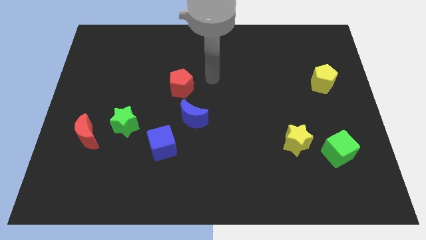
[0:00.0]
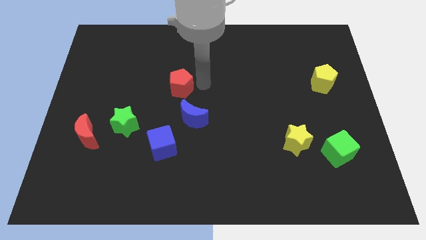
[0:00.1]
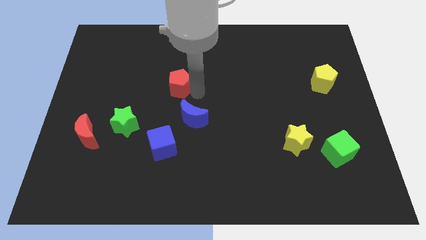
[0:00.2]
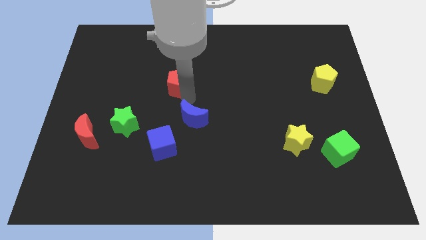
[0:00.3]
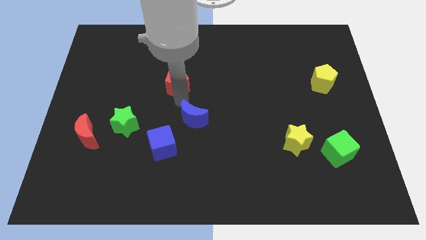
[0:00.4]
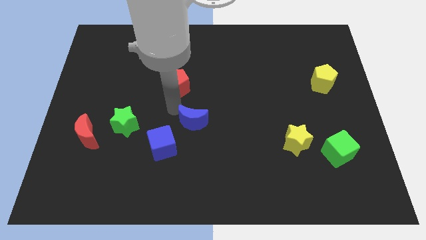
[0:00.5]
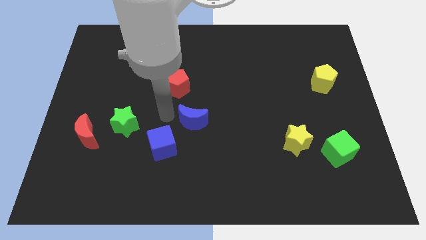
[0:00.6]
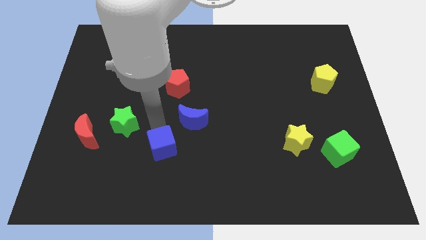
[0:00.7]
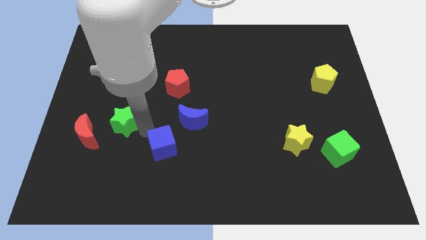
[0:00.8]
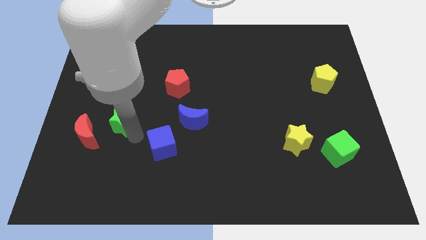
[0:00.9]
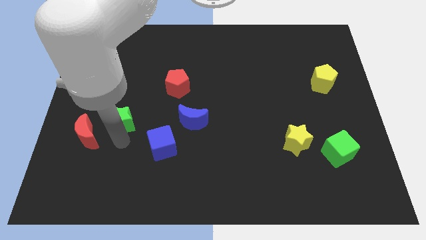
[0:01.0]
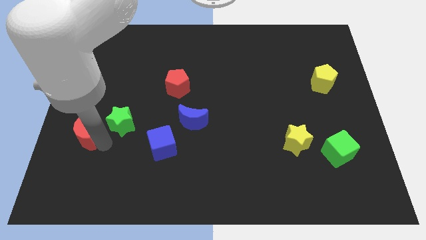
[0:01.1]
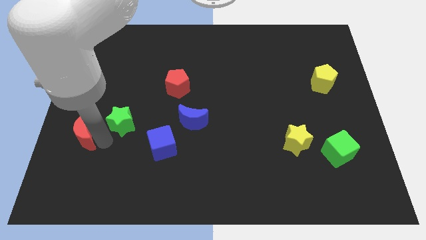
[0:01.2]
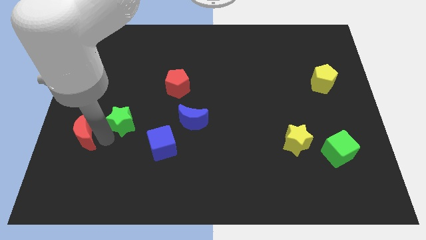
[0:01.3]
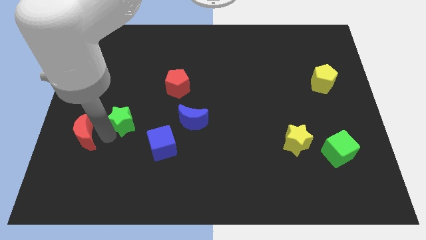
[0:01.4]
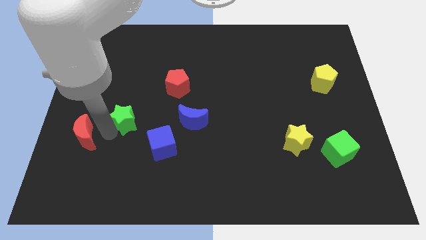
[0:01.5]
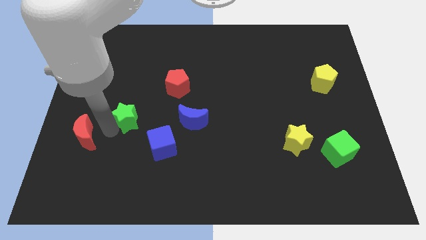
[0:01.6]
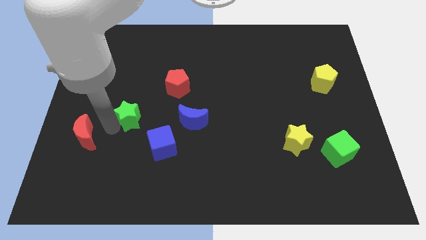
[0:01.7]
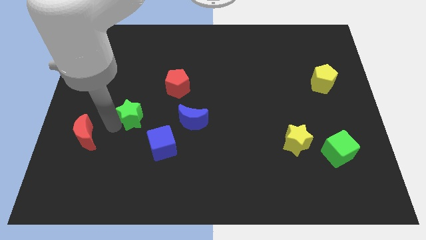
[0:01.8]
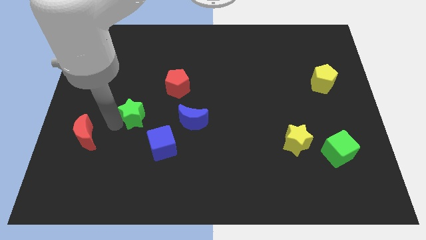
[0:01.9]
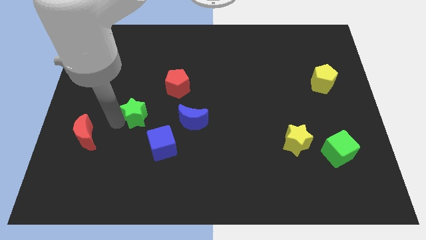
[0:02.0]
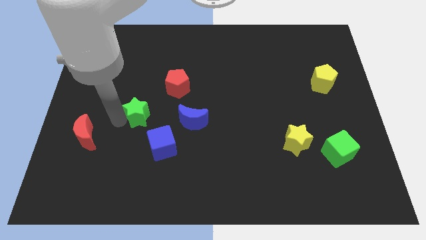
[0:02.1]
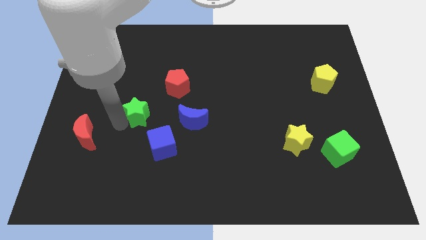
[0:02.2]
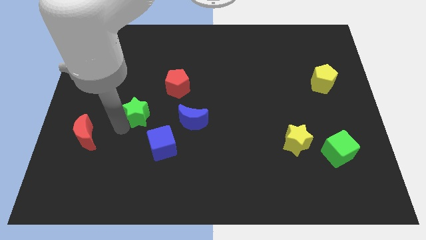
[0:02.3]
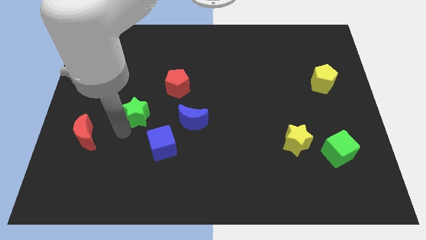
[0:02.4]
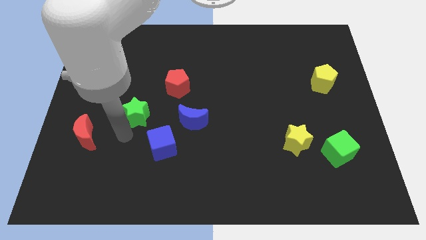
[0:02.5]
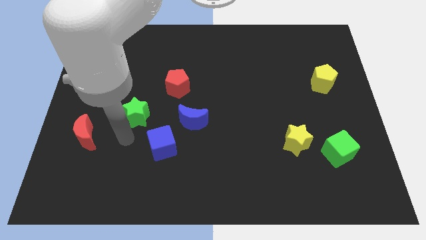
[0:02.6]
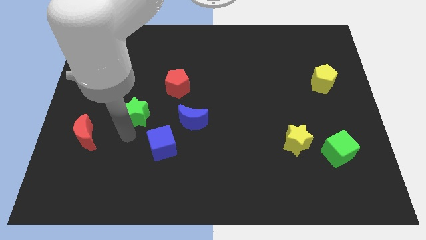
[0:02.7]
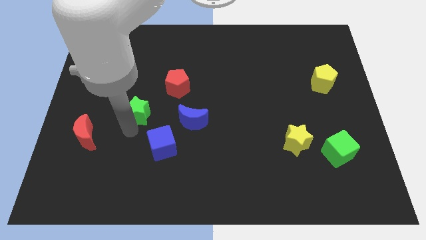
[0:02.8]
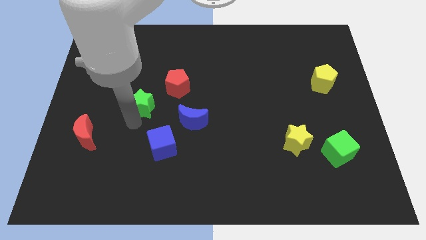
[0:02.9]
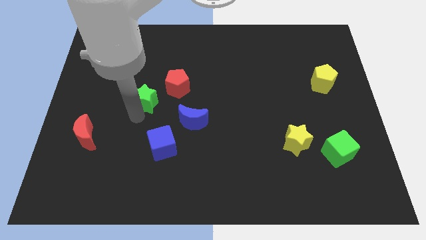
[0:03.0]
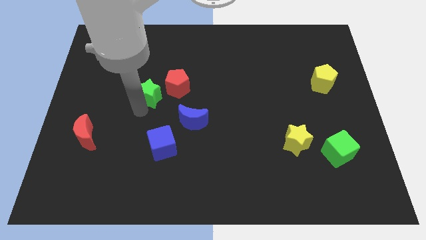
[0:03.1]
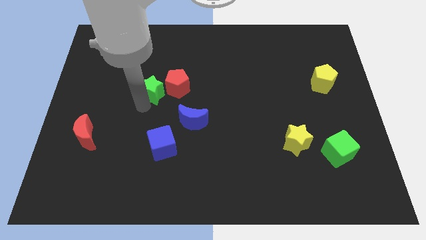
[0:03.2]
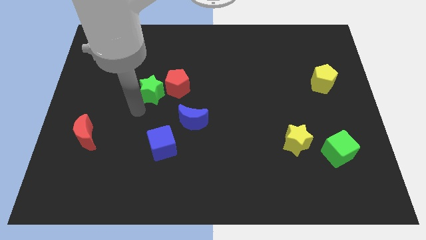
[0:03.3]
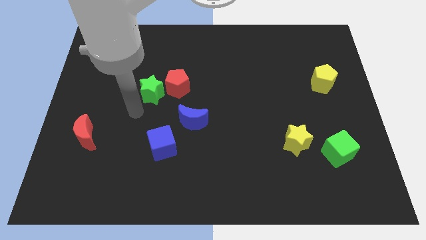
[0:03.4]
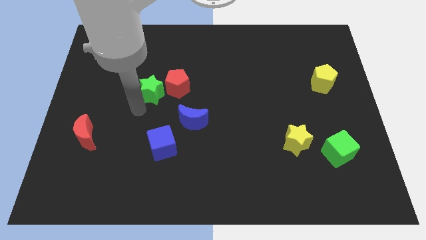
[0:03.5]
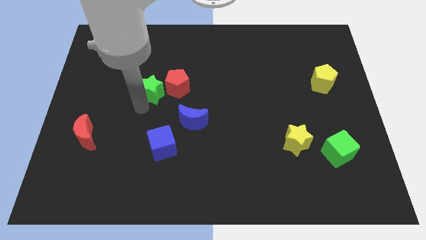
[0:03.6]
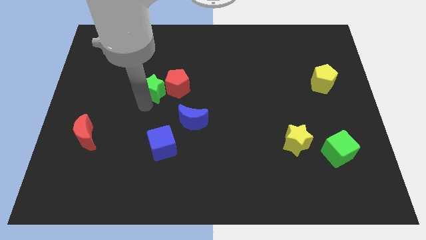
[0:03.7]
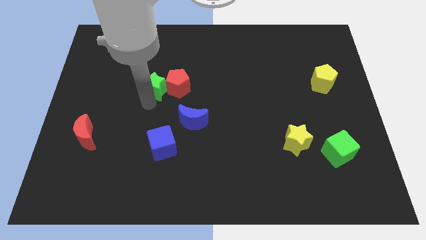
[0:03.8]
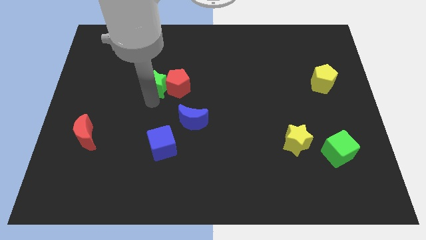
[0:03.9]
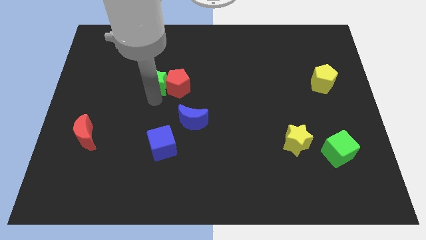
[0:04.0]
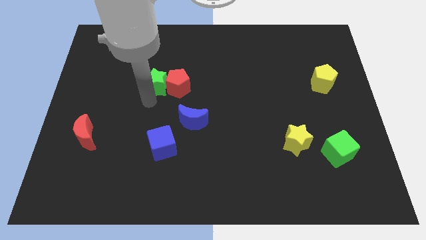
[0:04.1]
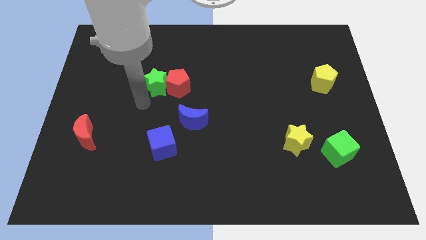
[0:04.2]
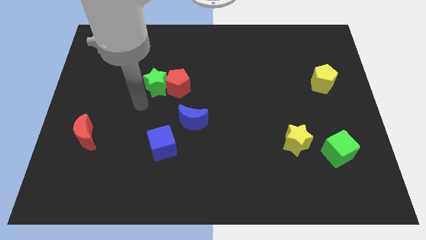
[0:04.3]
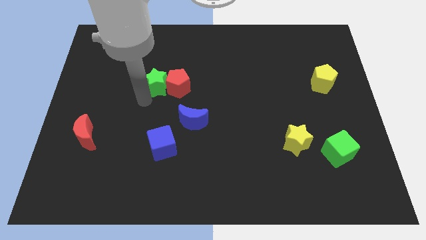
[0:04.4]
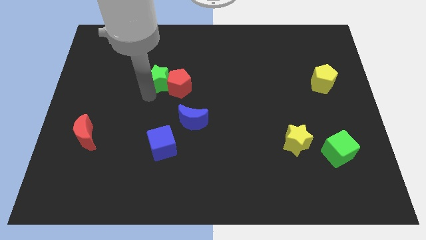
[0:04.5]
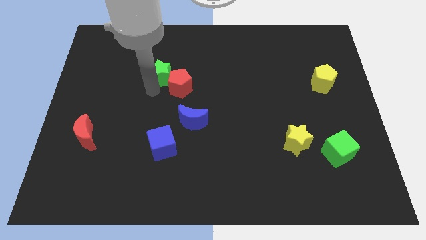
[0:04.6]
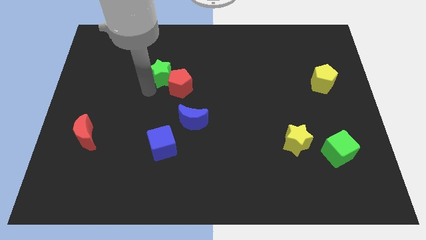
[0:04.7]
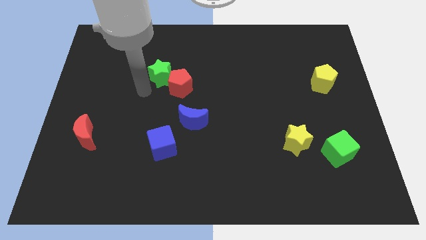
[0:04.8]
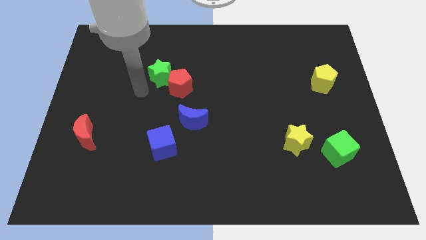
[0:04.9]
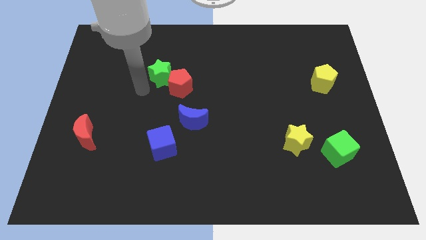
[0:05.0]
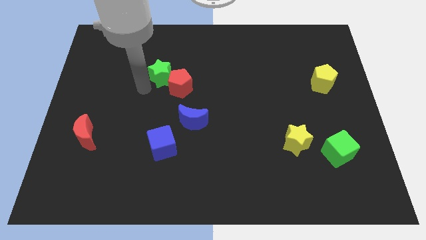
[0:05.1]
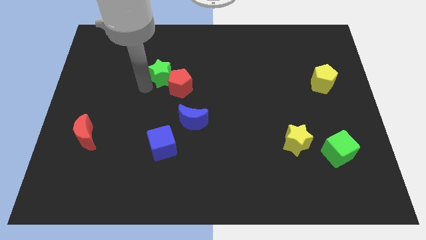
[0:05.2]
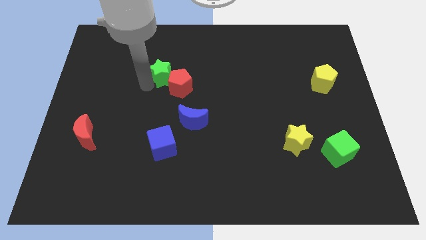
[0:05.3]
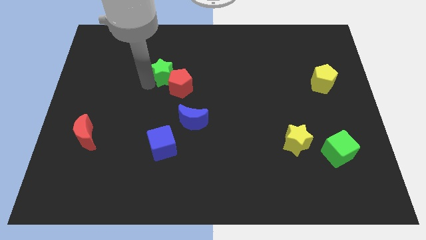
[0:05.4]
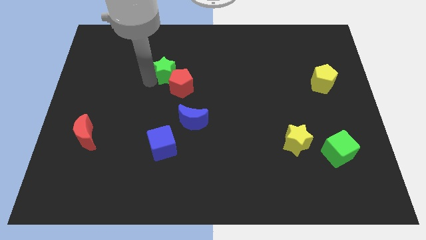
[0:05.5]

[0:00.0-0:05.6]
put the green star to the top of the red pentagon

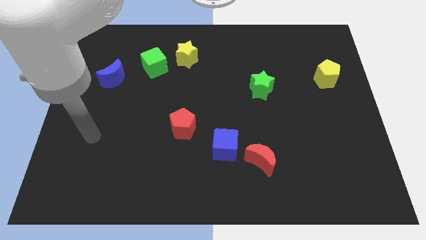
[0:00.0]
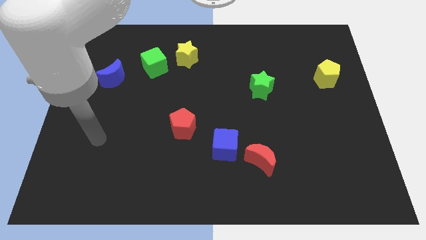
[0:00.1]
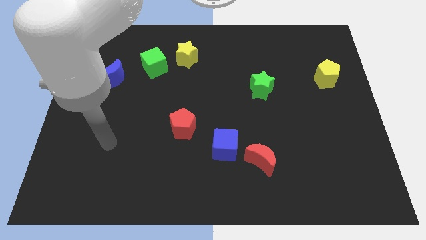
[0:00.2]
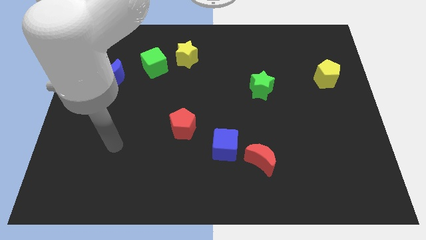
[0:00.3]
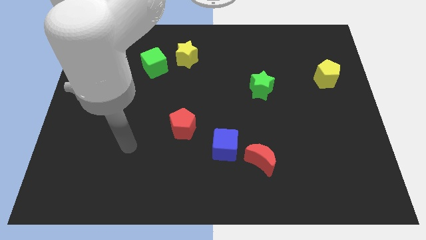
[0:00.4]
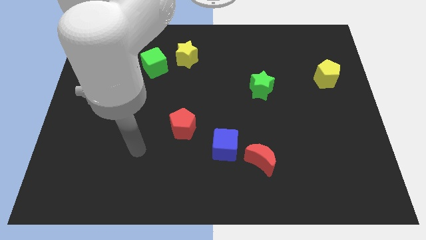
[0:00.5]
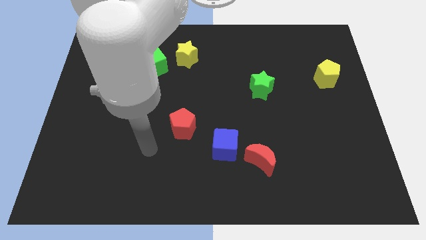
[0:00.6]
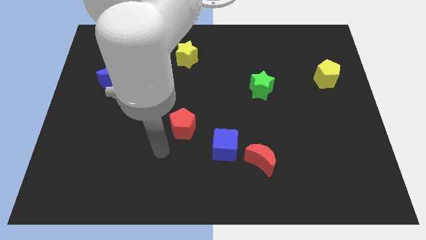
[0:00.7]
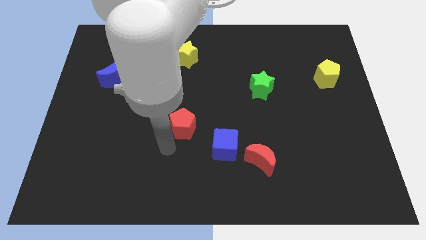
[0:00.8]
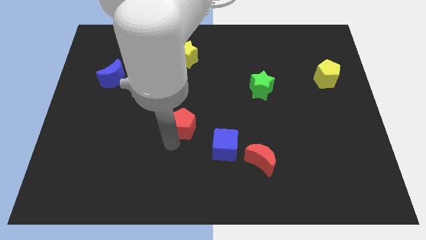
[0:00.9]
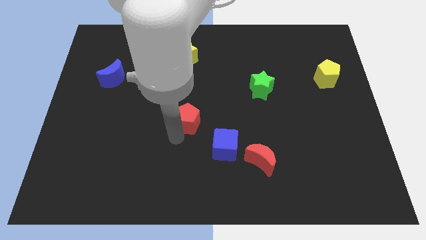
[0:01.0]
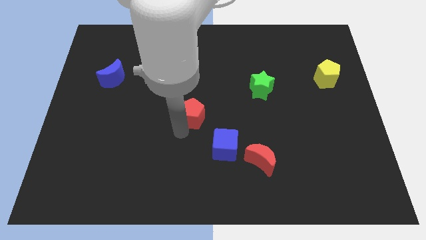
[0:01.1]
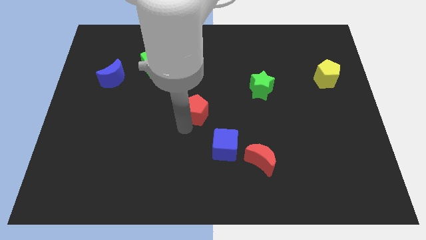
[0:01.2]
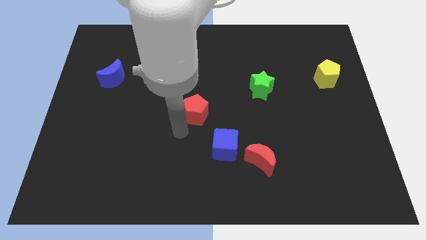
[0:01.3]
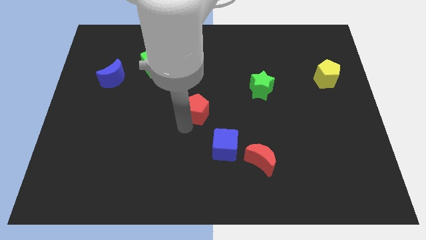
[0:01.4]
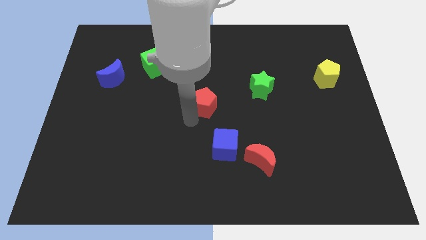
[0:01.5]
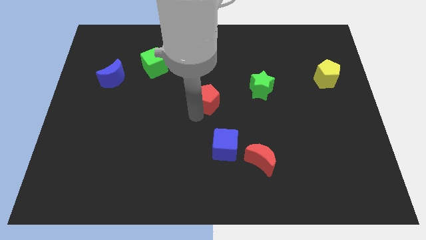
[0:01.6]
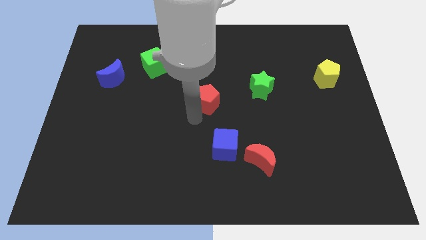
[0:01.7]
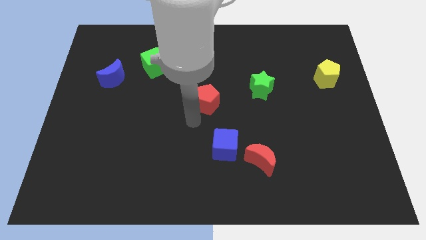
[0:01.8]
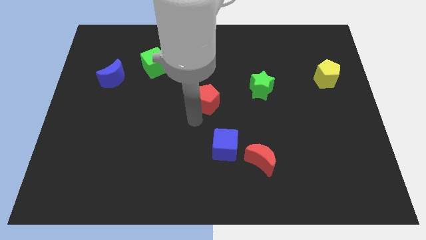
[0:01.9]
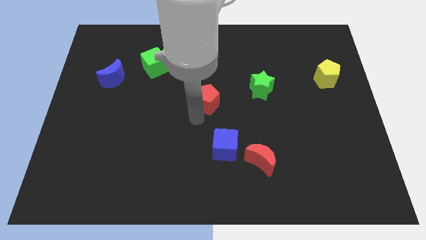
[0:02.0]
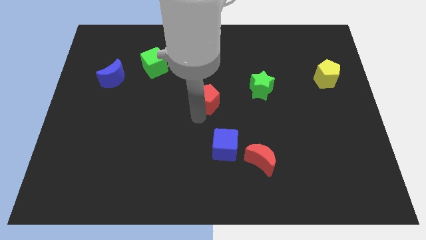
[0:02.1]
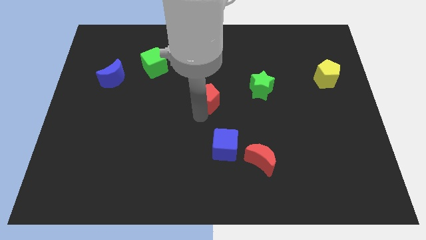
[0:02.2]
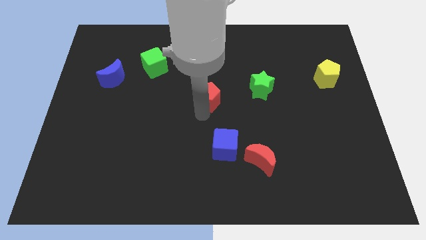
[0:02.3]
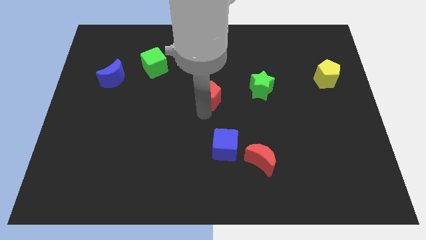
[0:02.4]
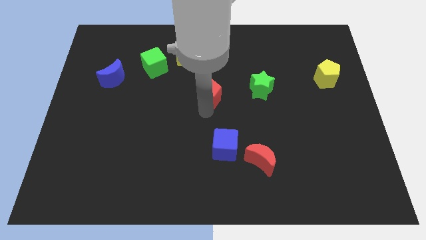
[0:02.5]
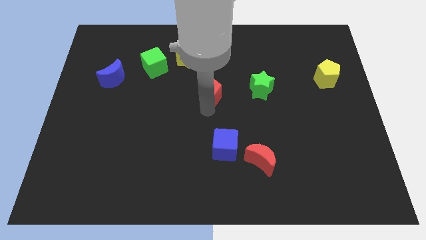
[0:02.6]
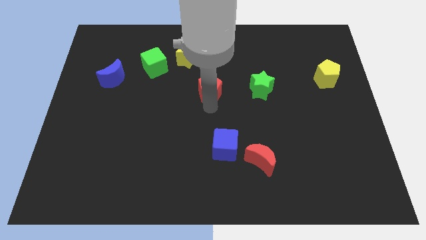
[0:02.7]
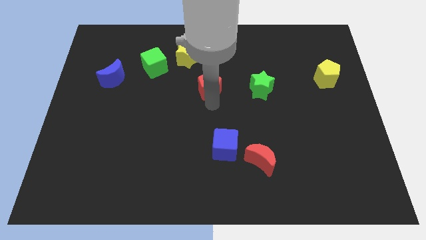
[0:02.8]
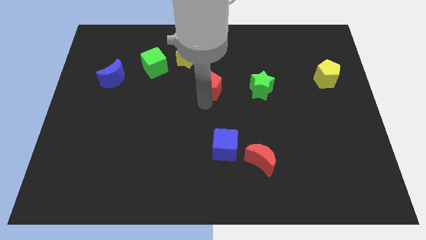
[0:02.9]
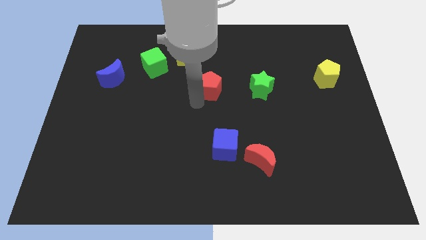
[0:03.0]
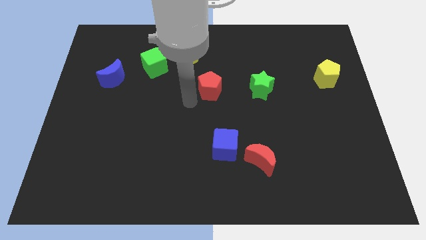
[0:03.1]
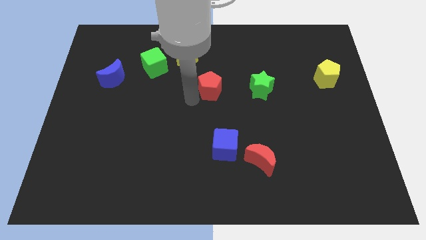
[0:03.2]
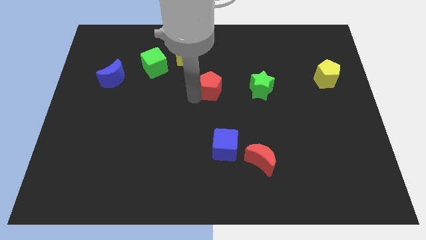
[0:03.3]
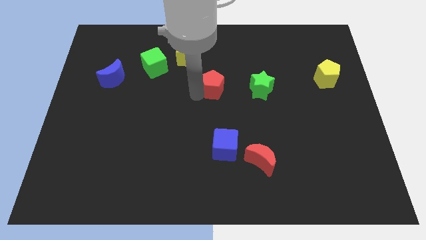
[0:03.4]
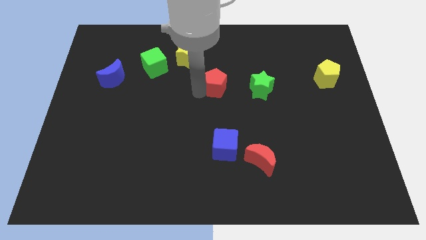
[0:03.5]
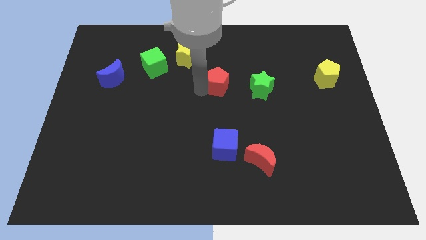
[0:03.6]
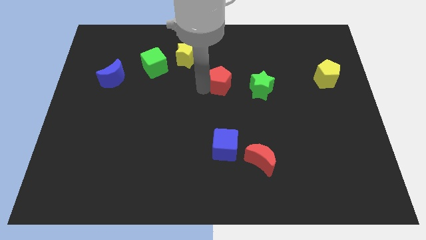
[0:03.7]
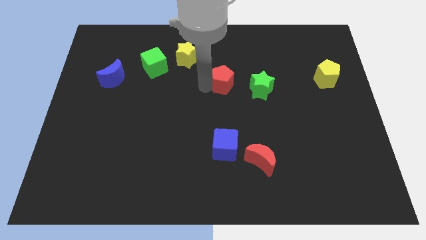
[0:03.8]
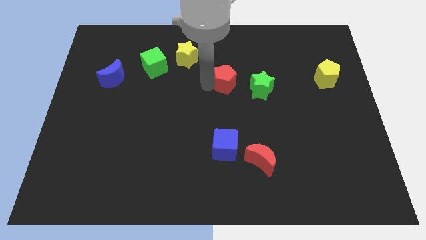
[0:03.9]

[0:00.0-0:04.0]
put the red pentagon to the top left side of the green star
